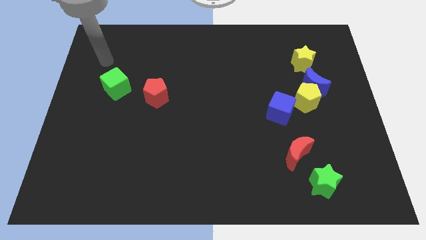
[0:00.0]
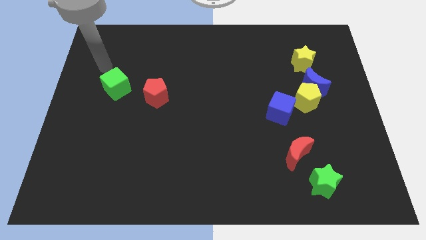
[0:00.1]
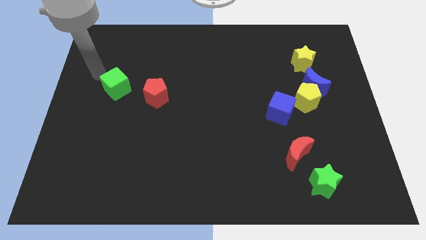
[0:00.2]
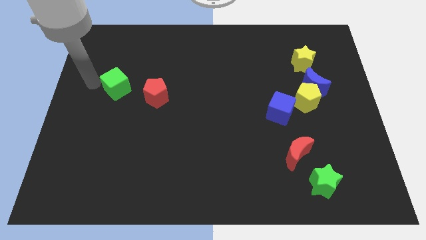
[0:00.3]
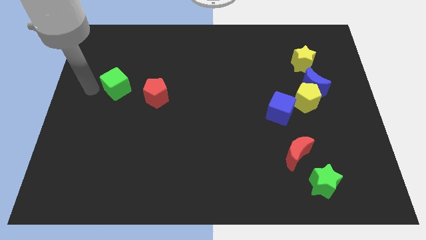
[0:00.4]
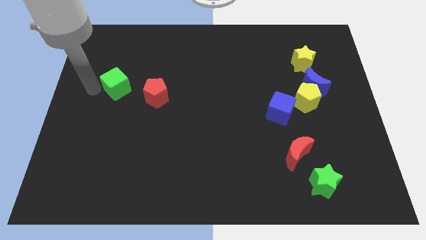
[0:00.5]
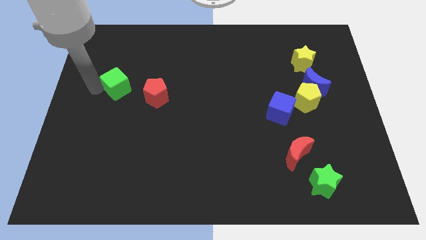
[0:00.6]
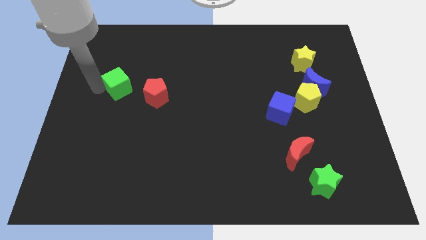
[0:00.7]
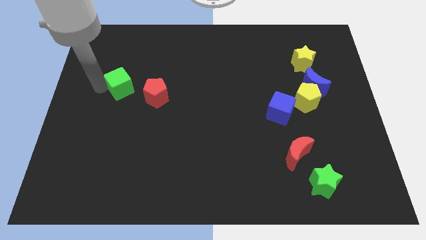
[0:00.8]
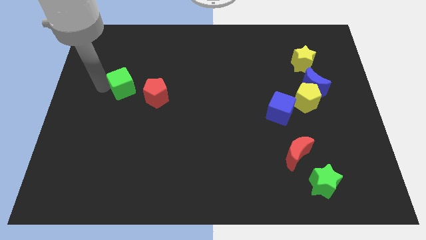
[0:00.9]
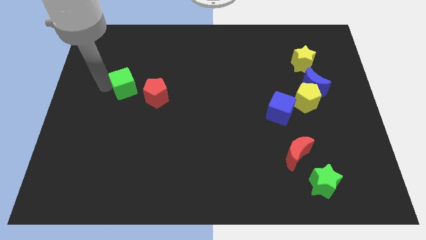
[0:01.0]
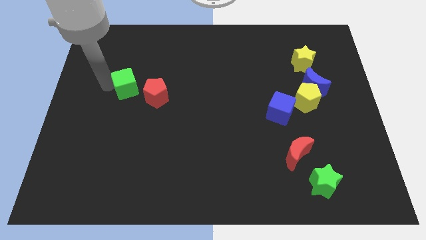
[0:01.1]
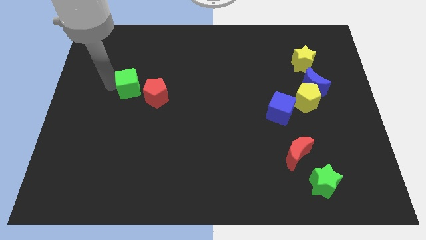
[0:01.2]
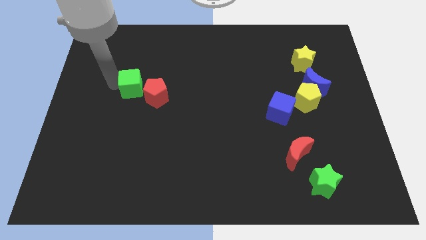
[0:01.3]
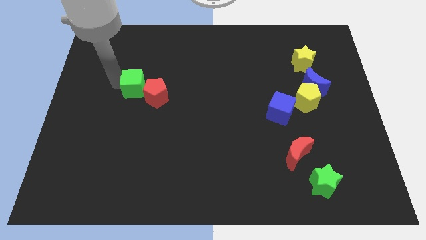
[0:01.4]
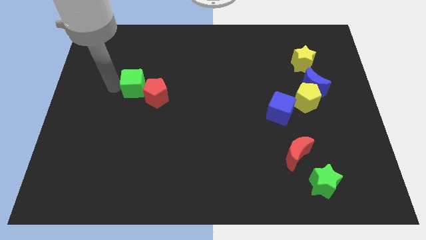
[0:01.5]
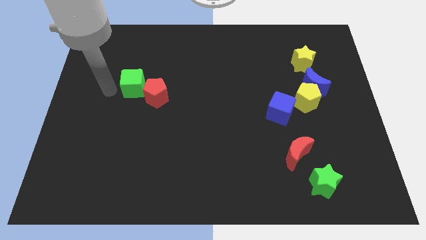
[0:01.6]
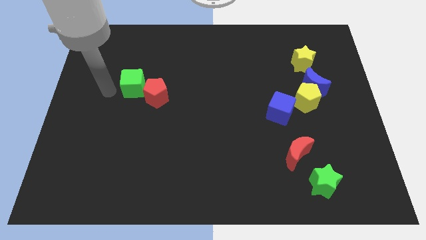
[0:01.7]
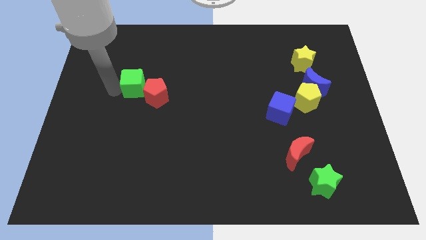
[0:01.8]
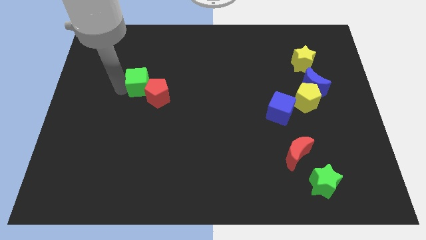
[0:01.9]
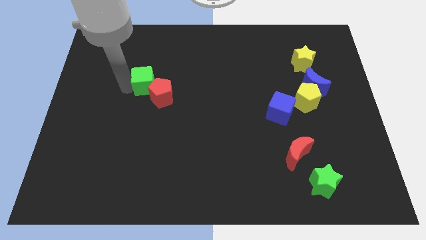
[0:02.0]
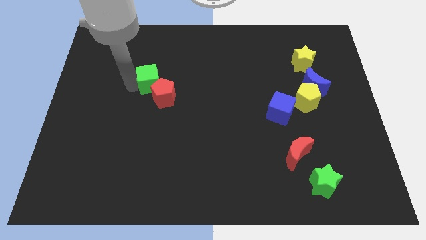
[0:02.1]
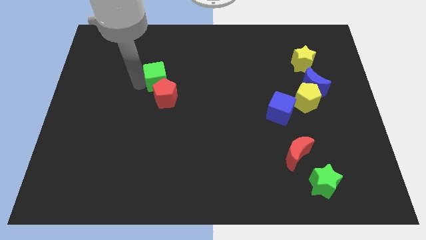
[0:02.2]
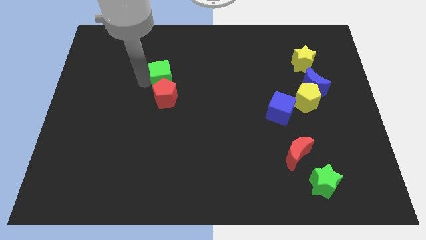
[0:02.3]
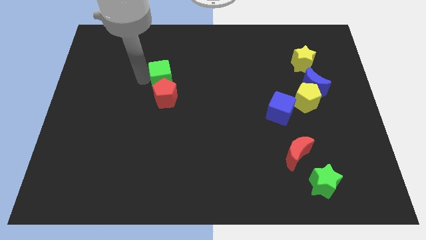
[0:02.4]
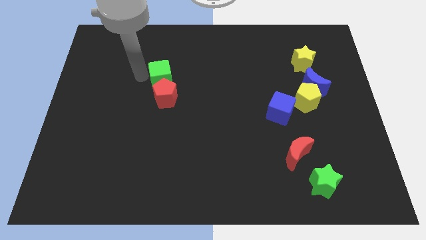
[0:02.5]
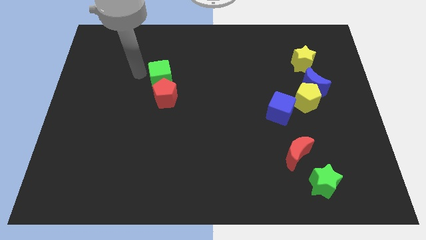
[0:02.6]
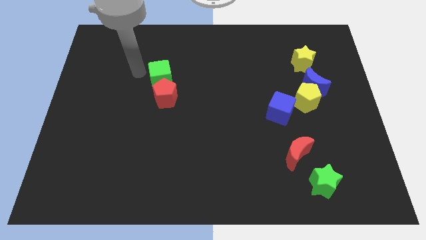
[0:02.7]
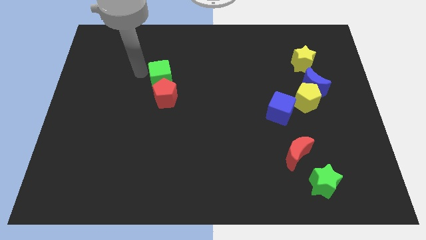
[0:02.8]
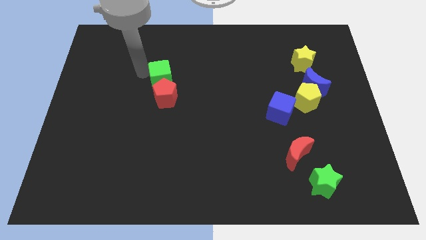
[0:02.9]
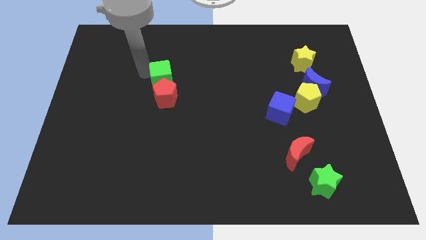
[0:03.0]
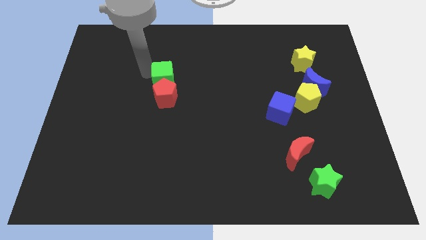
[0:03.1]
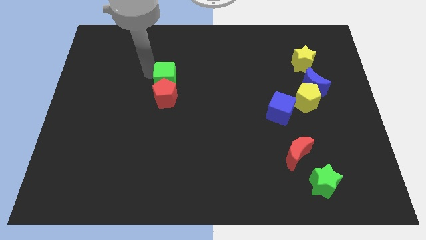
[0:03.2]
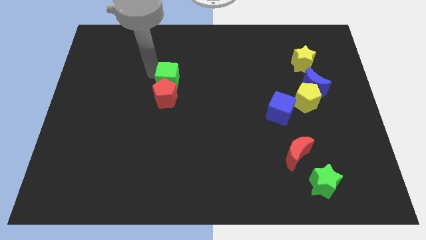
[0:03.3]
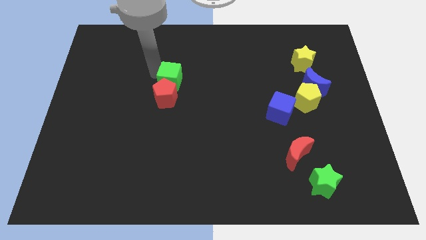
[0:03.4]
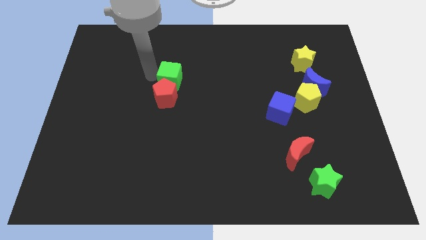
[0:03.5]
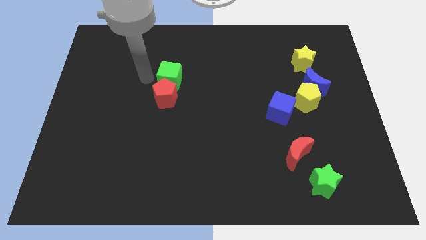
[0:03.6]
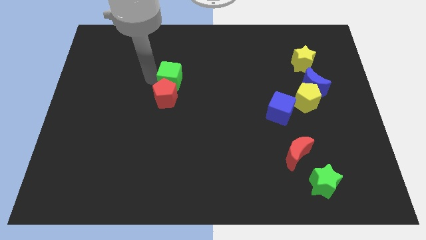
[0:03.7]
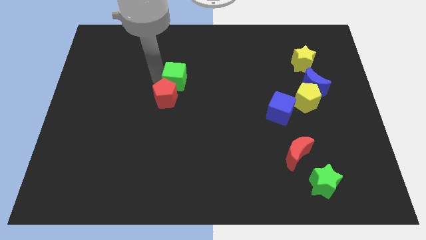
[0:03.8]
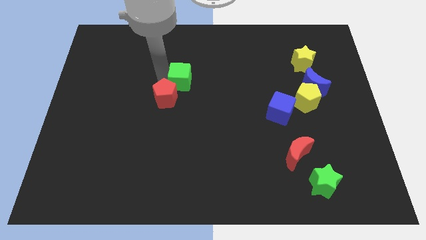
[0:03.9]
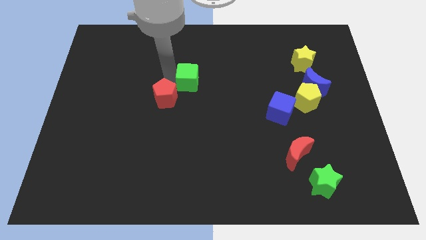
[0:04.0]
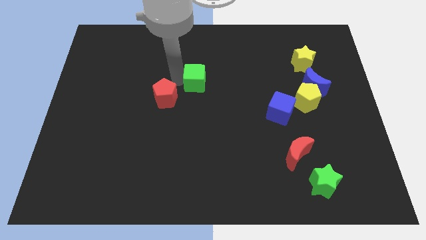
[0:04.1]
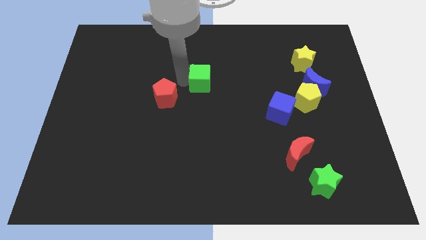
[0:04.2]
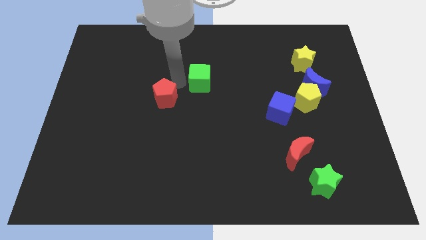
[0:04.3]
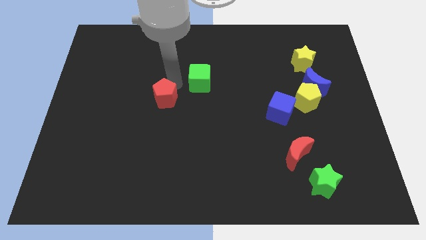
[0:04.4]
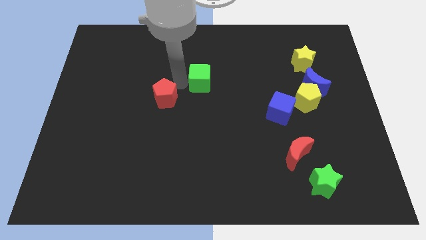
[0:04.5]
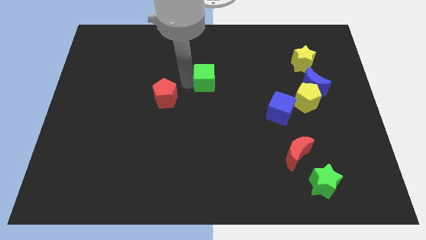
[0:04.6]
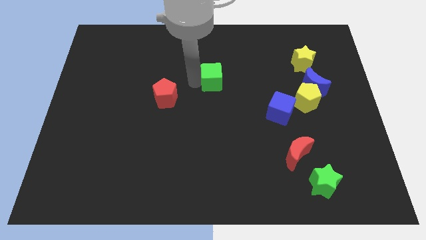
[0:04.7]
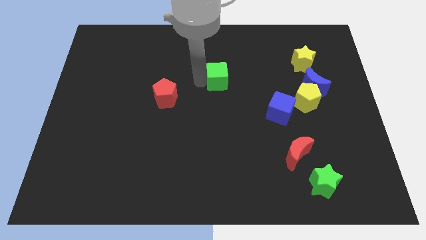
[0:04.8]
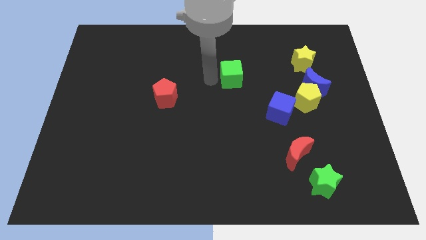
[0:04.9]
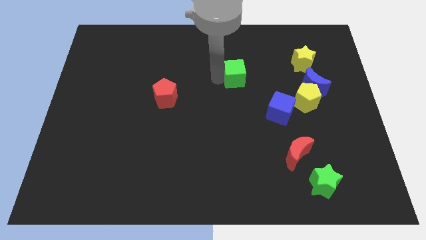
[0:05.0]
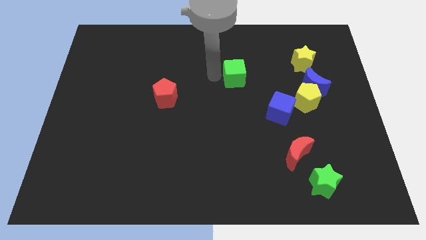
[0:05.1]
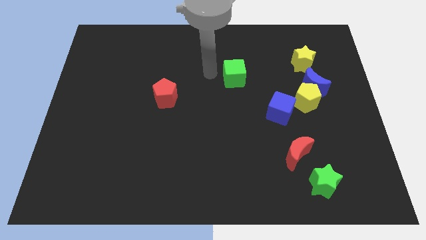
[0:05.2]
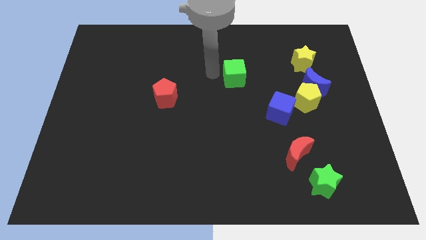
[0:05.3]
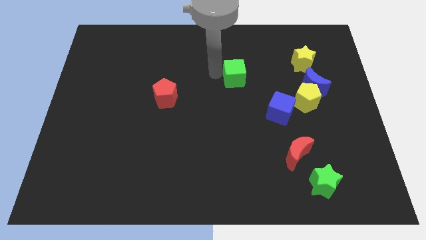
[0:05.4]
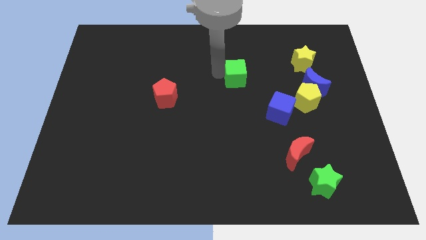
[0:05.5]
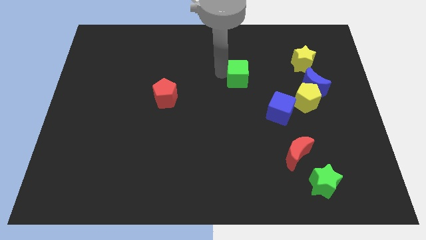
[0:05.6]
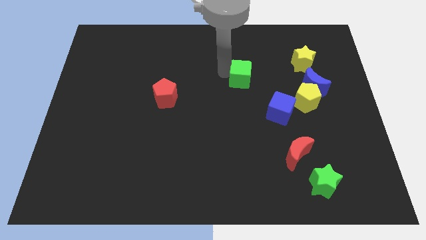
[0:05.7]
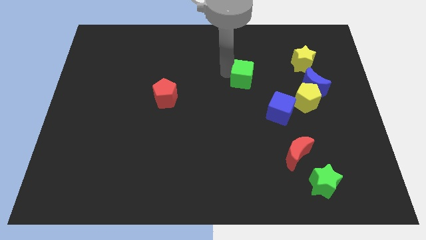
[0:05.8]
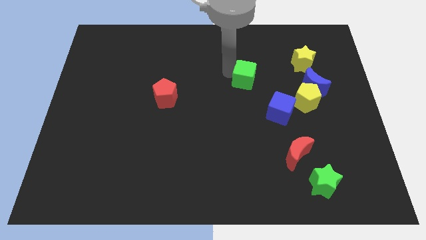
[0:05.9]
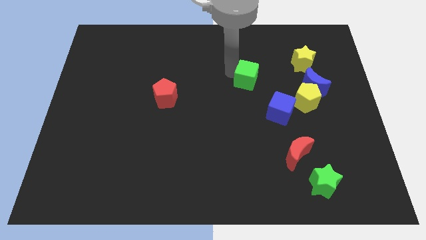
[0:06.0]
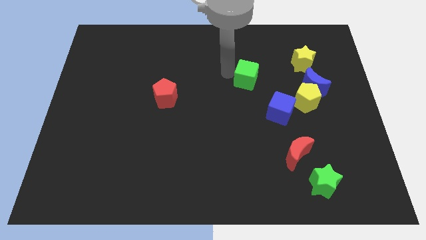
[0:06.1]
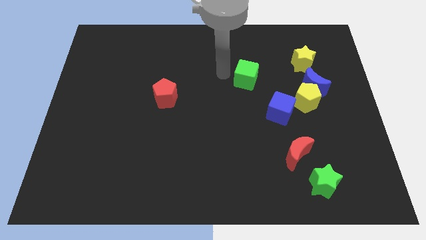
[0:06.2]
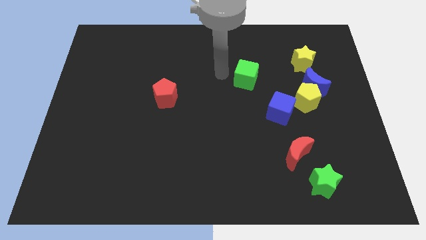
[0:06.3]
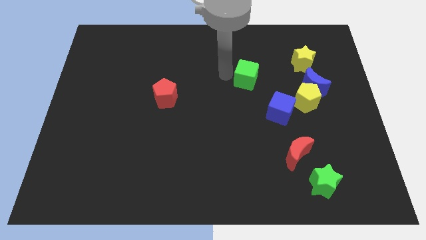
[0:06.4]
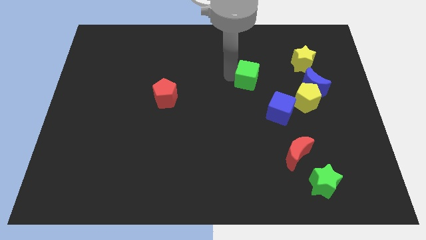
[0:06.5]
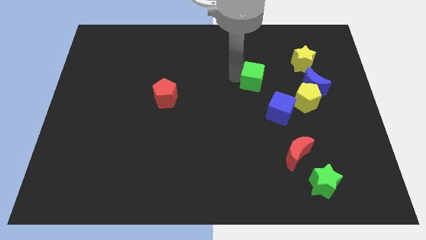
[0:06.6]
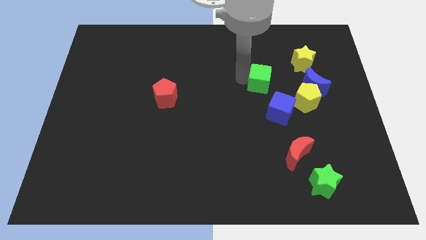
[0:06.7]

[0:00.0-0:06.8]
slide the green cube to the top of the blue cube

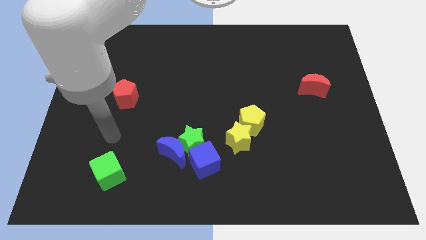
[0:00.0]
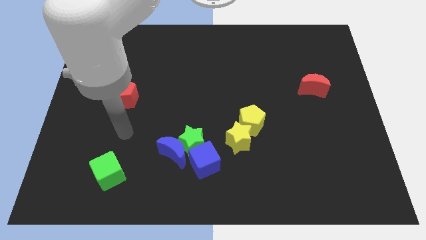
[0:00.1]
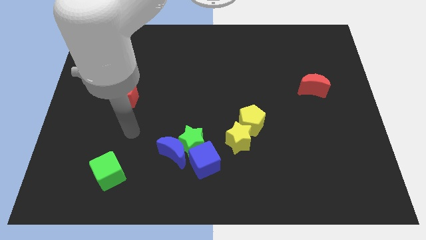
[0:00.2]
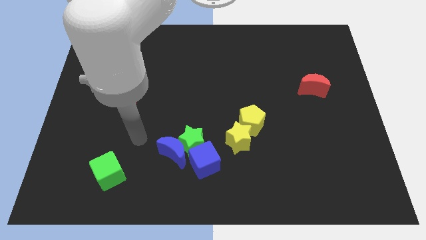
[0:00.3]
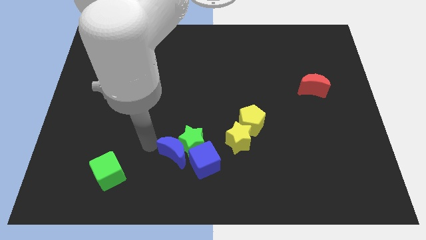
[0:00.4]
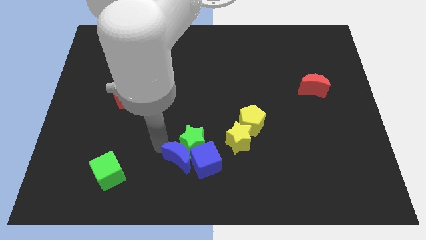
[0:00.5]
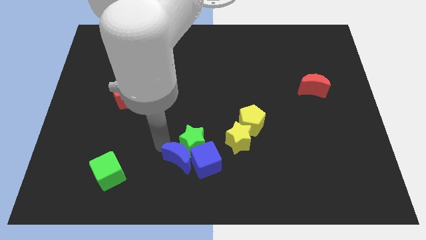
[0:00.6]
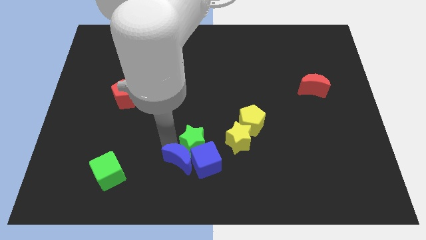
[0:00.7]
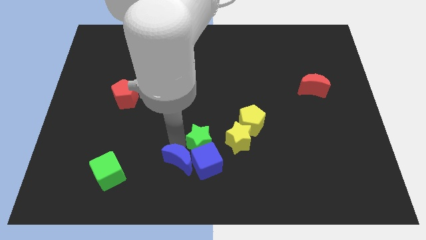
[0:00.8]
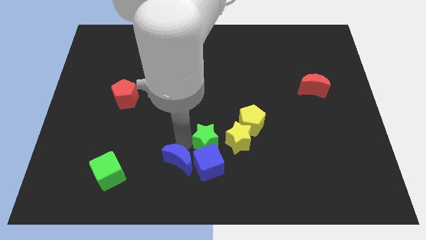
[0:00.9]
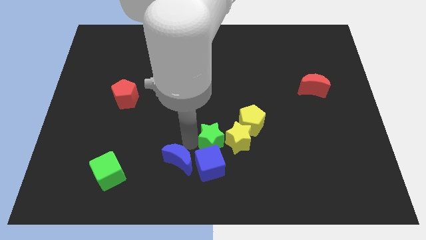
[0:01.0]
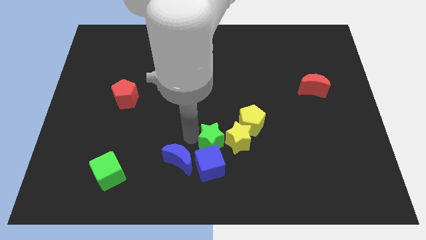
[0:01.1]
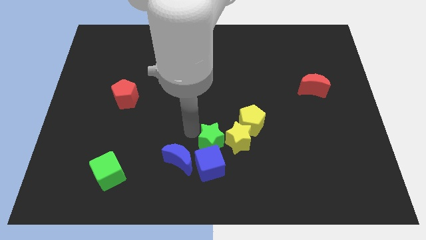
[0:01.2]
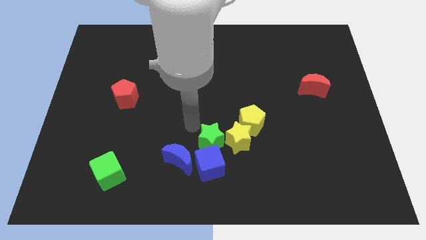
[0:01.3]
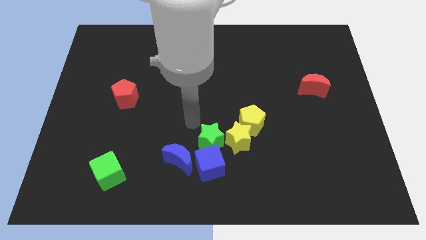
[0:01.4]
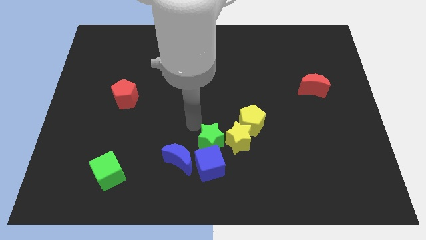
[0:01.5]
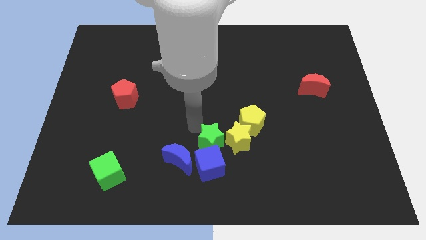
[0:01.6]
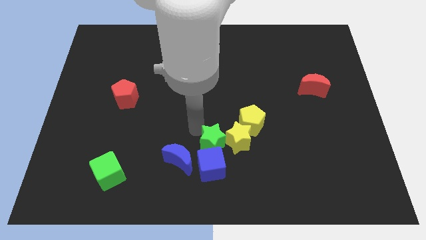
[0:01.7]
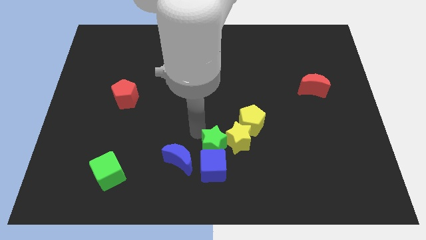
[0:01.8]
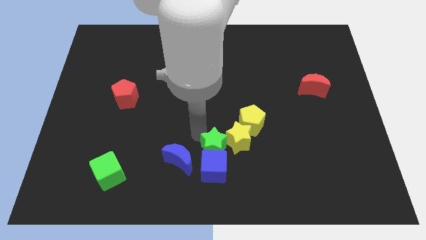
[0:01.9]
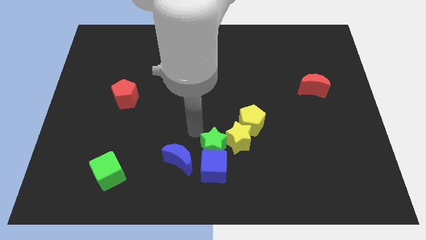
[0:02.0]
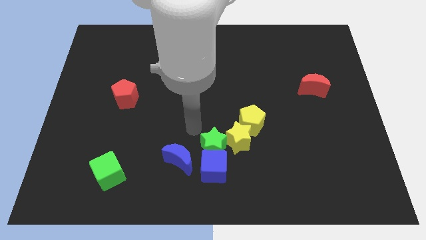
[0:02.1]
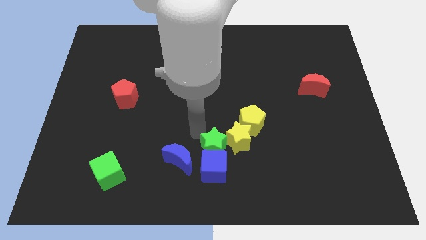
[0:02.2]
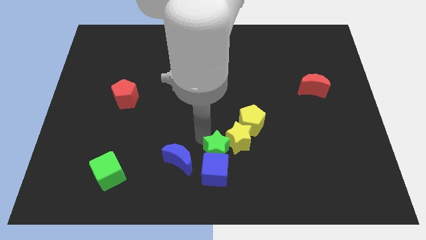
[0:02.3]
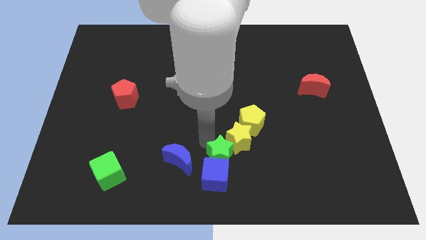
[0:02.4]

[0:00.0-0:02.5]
move the green star to the bottom of the yellow star
